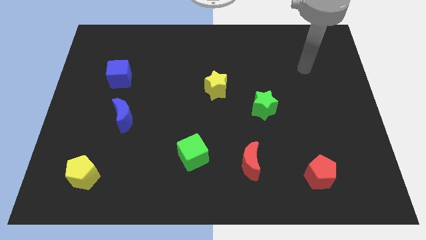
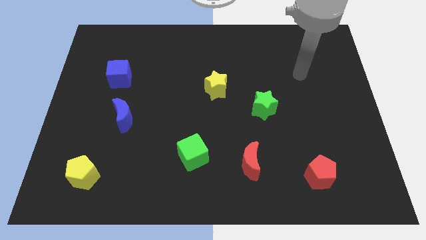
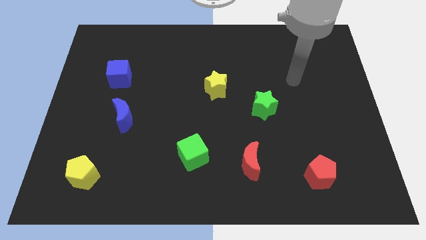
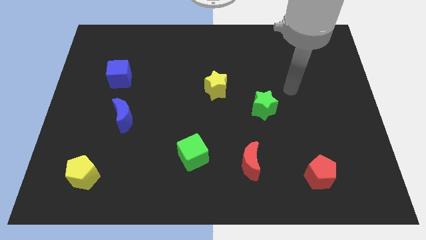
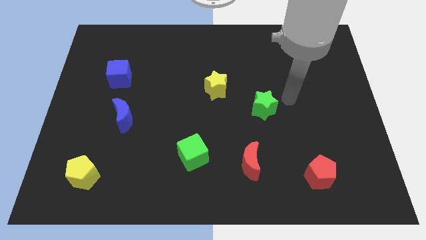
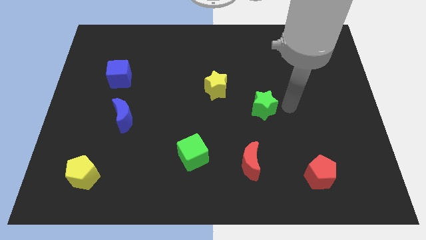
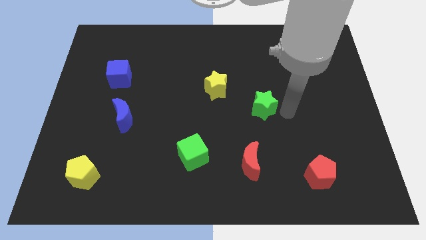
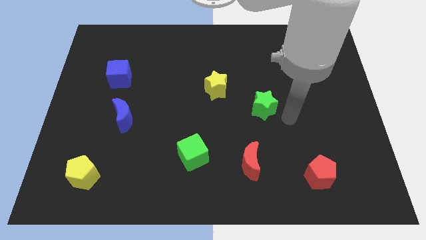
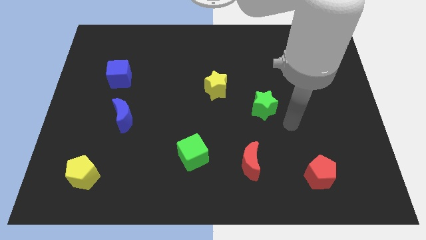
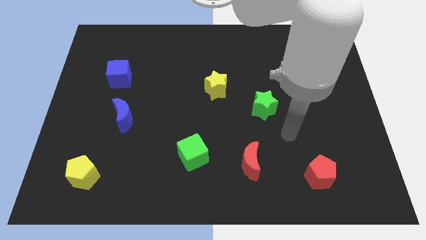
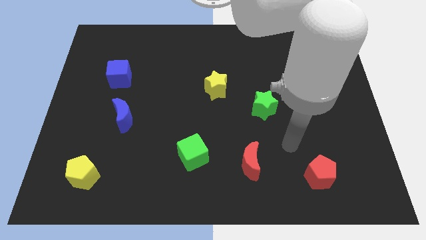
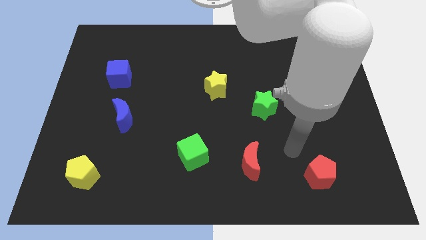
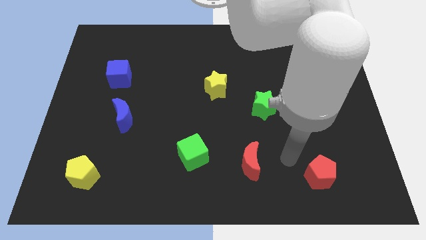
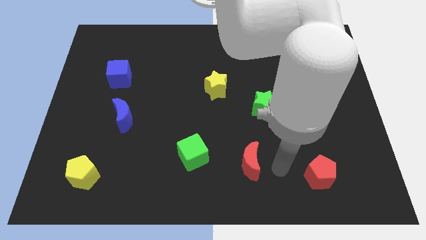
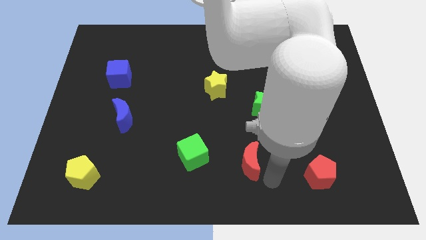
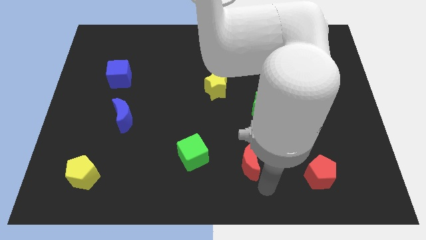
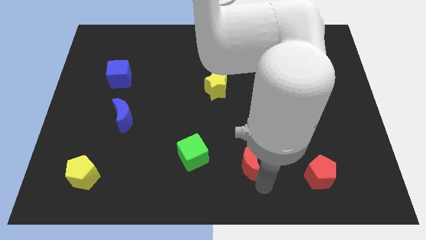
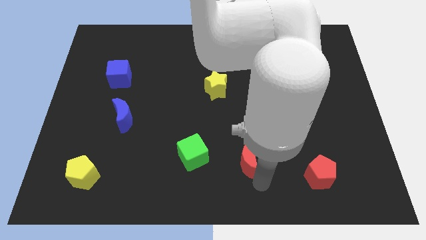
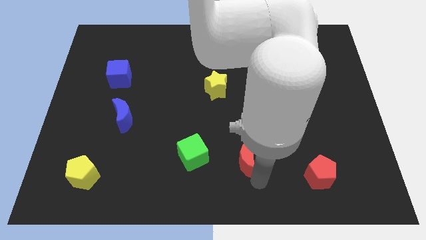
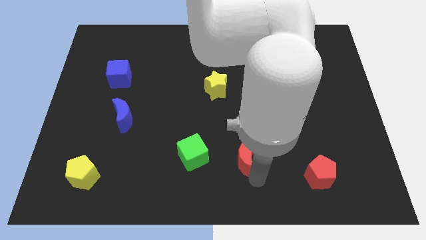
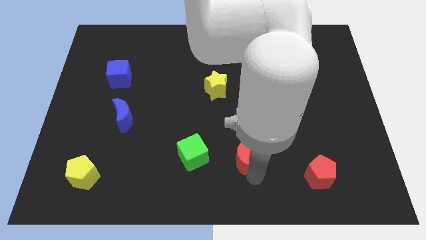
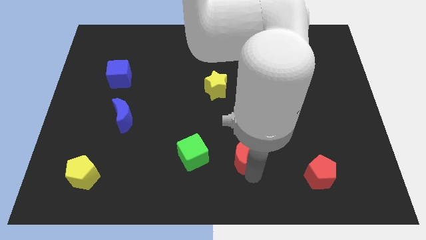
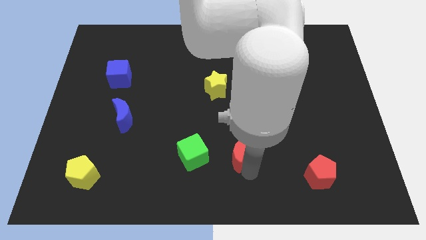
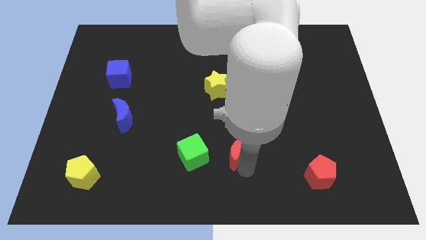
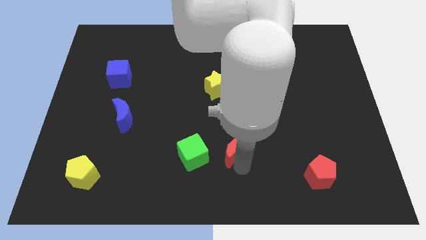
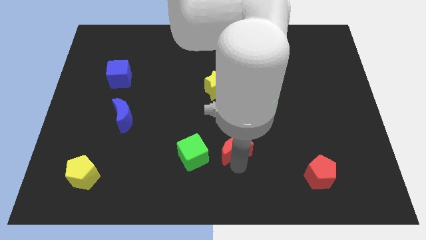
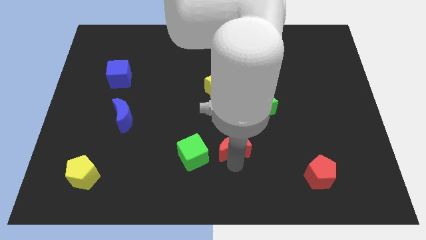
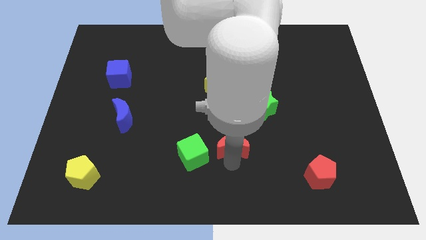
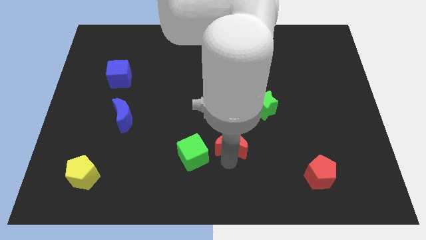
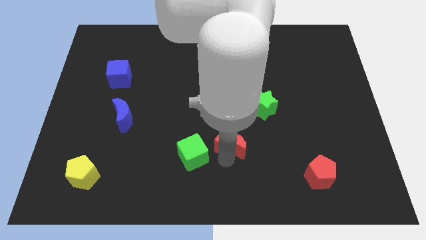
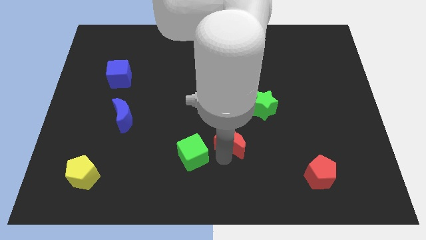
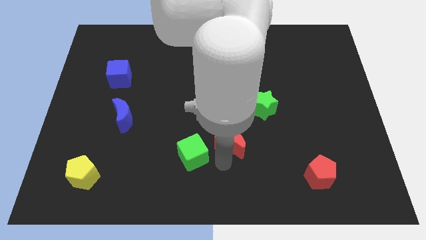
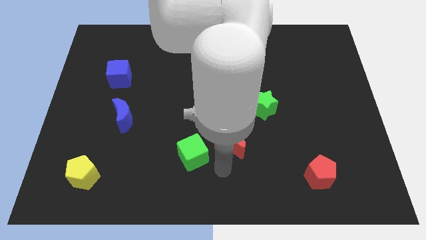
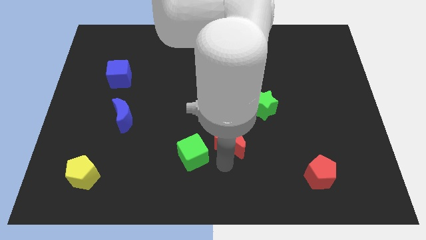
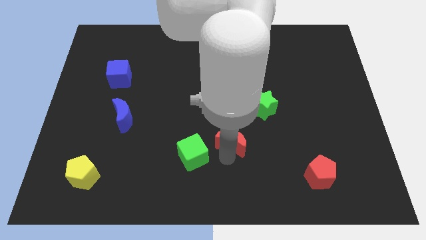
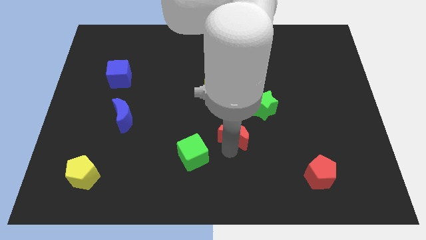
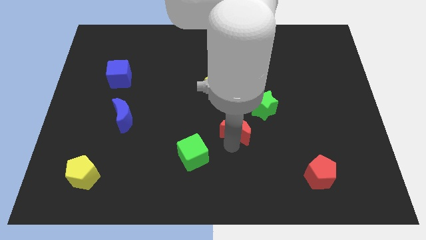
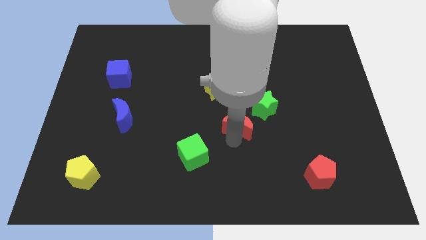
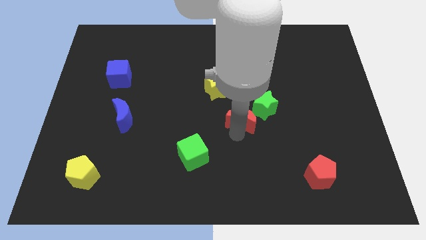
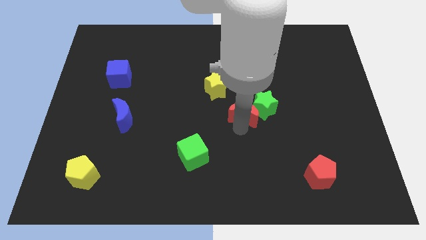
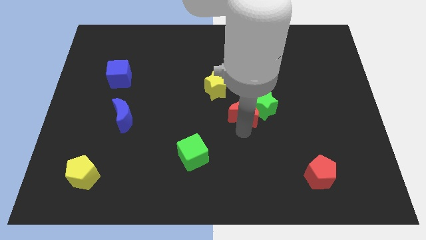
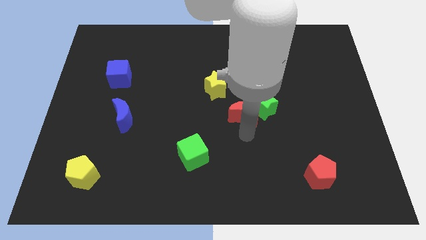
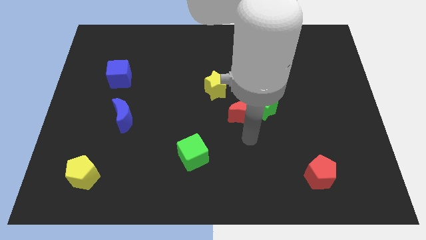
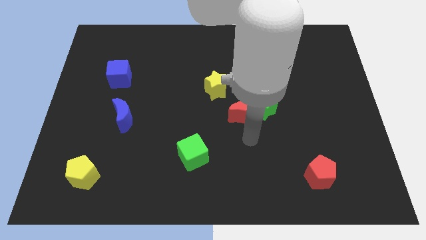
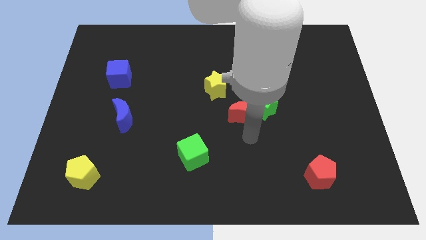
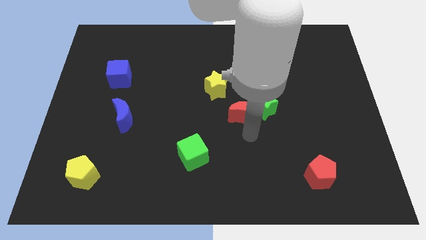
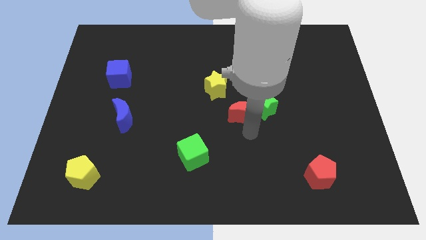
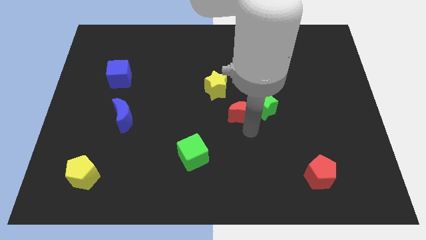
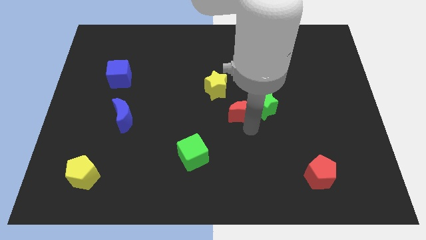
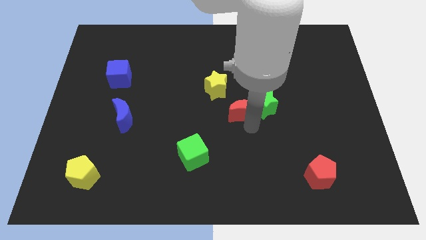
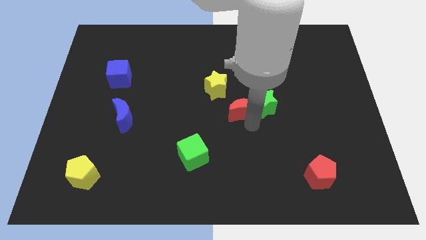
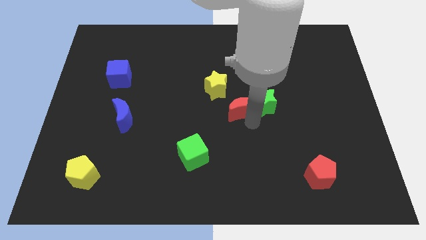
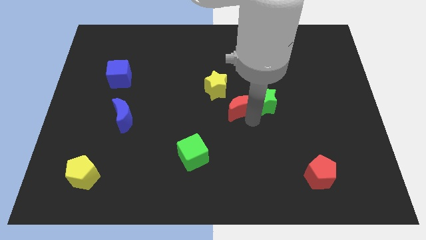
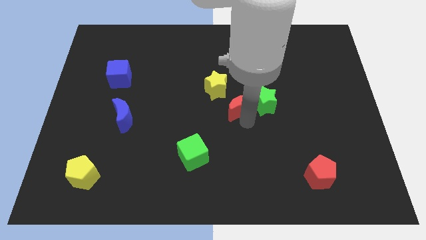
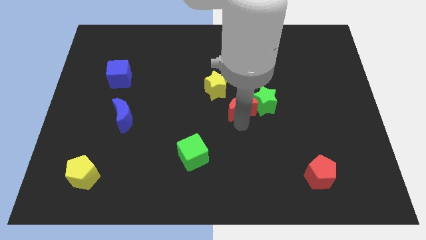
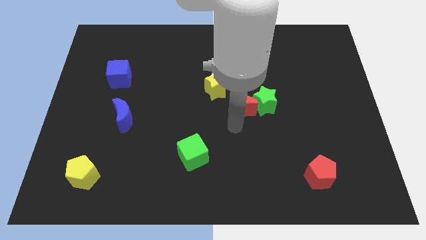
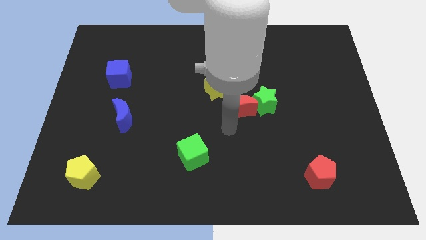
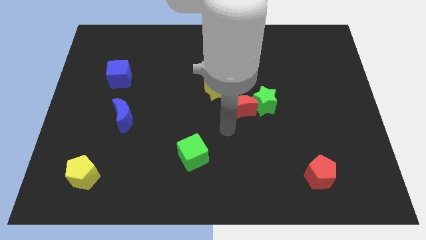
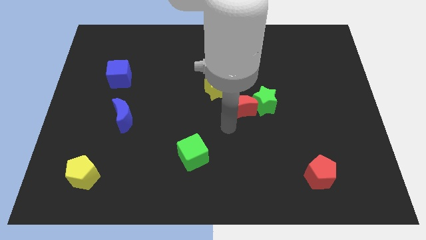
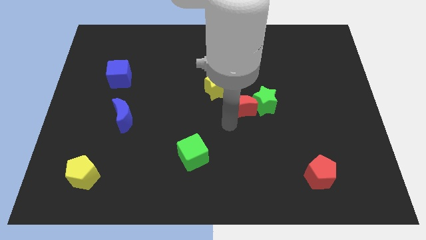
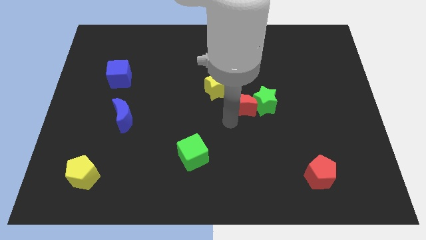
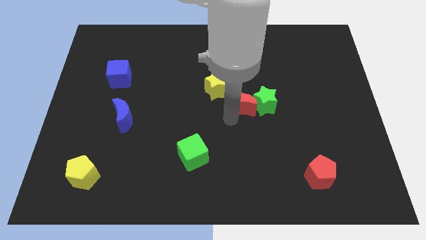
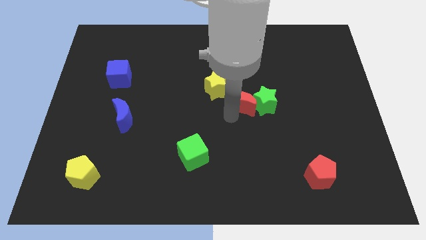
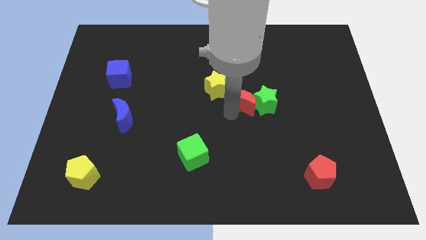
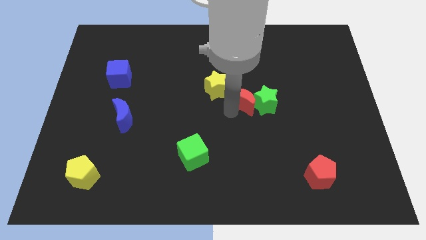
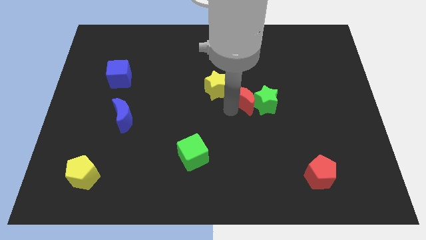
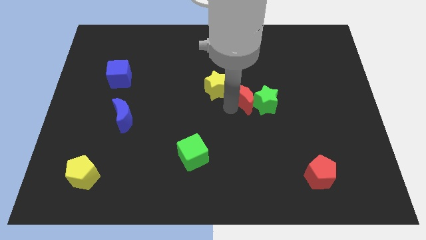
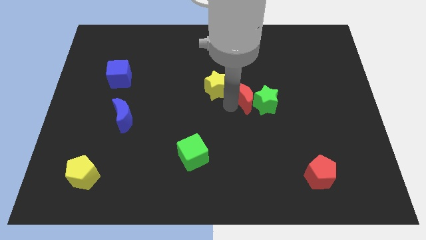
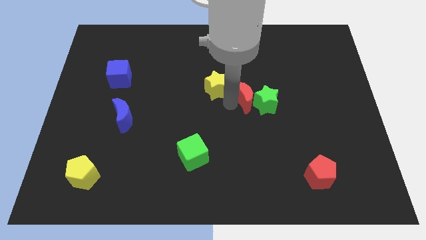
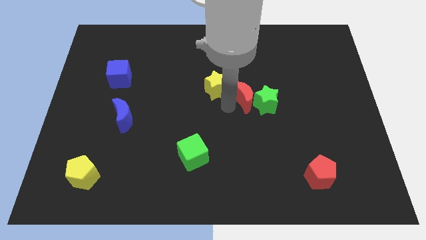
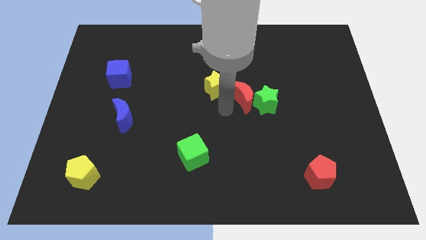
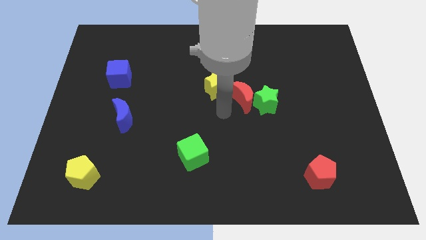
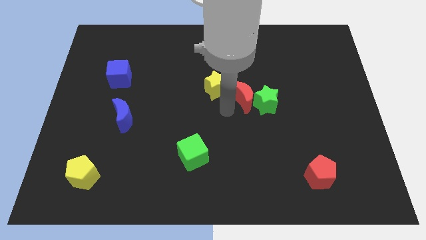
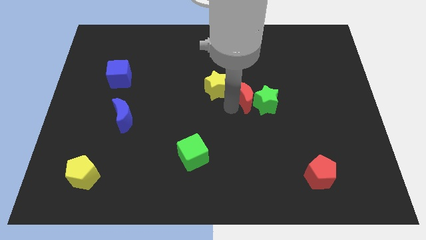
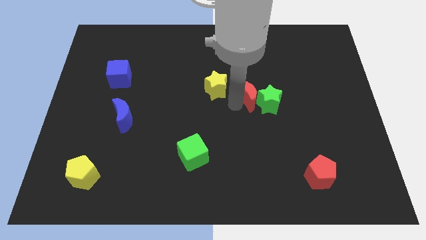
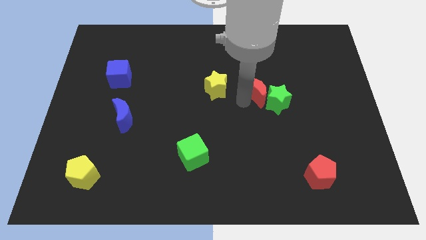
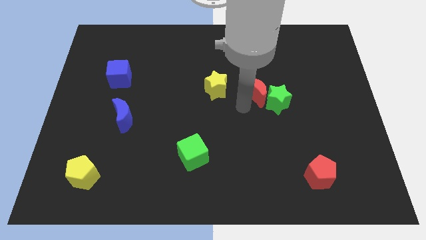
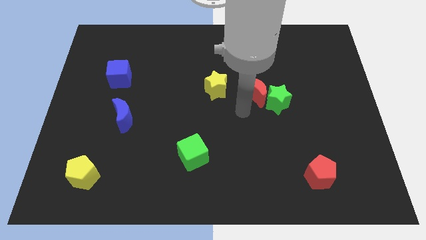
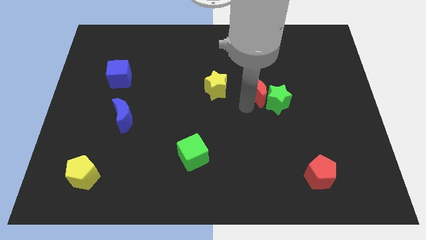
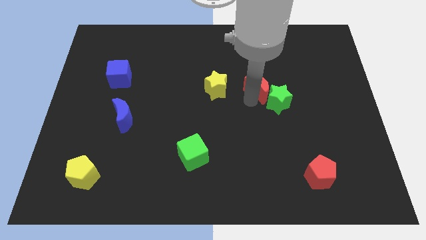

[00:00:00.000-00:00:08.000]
slide the red moon to the top of the green star
